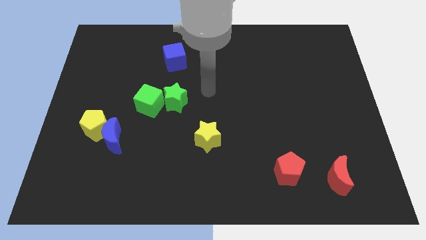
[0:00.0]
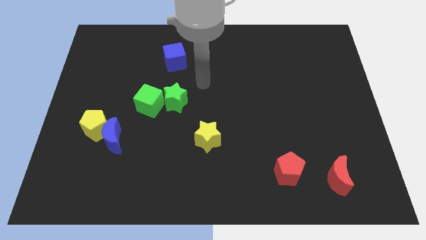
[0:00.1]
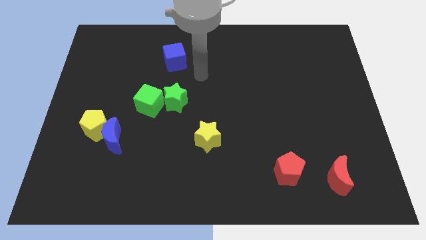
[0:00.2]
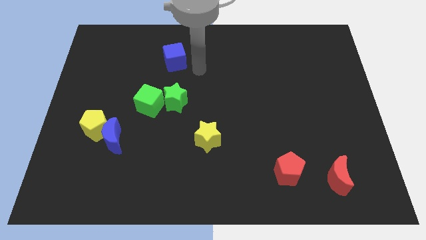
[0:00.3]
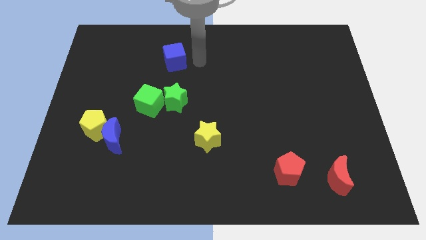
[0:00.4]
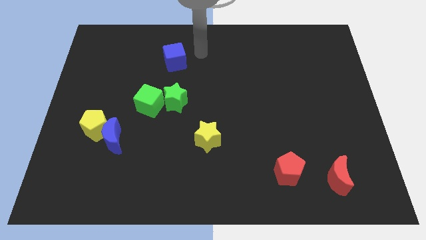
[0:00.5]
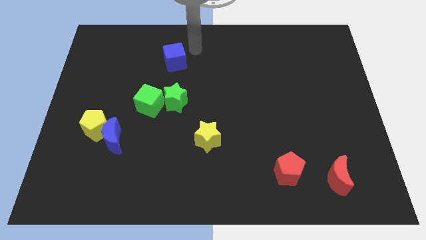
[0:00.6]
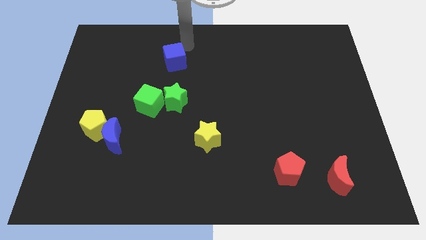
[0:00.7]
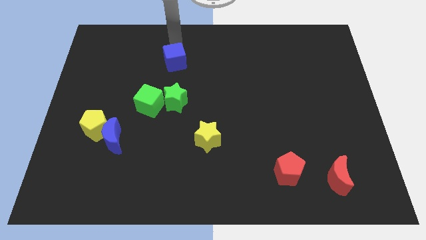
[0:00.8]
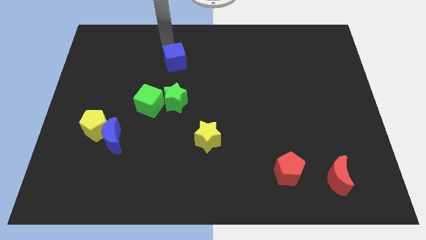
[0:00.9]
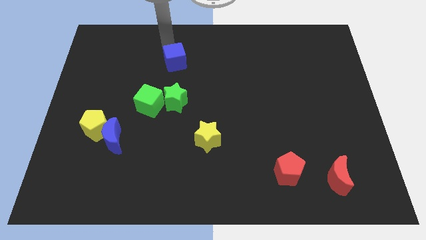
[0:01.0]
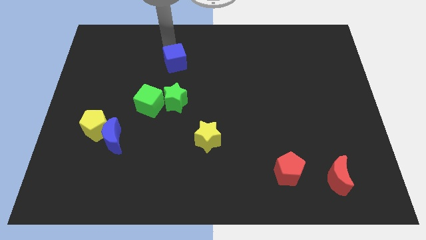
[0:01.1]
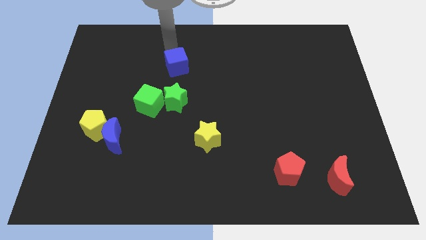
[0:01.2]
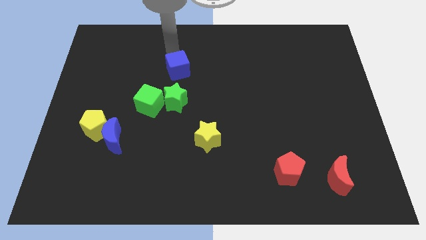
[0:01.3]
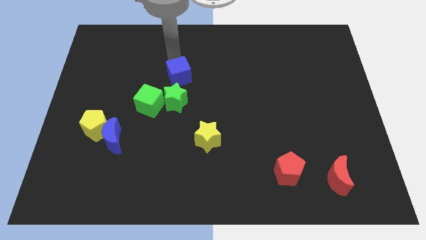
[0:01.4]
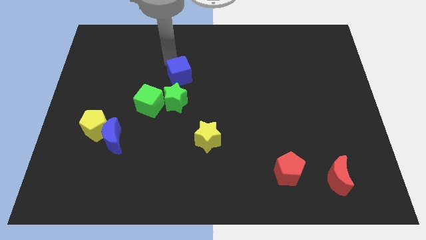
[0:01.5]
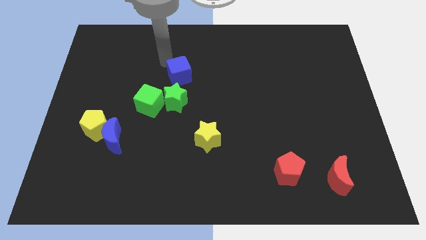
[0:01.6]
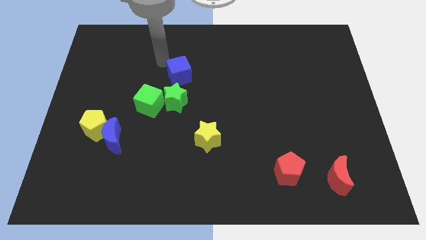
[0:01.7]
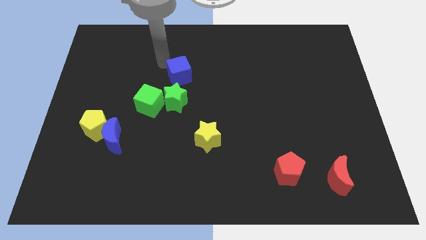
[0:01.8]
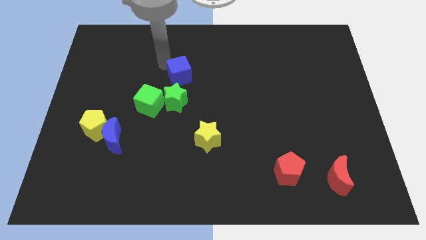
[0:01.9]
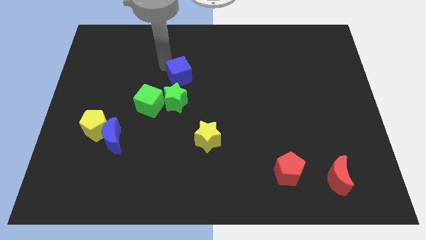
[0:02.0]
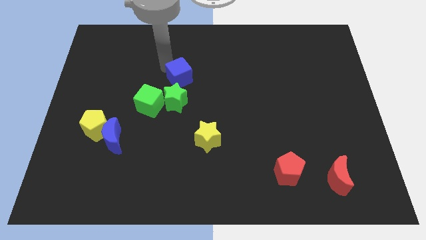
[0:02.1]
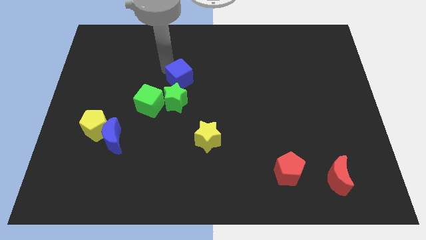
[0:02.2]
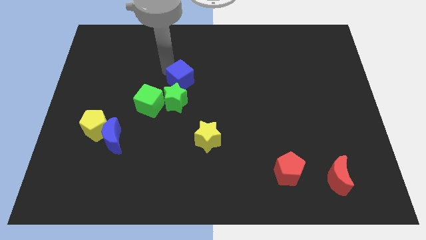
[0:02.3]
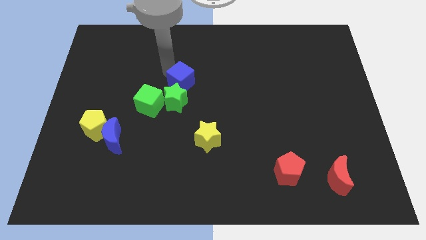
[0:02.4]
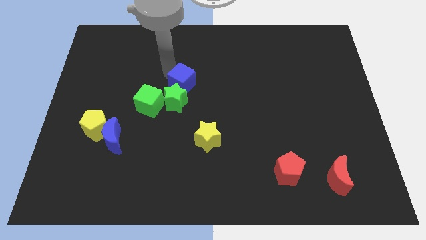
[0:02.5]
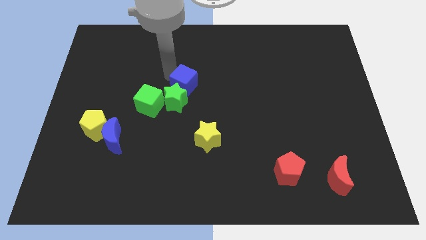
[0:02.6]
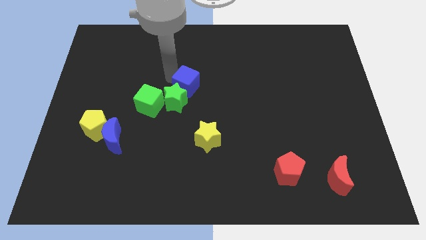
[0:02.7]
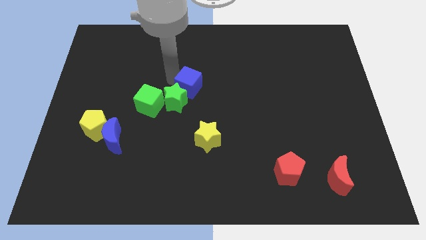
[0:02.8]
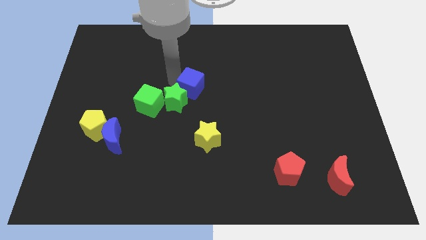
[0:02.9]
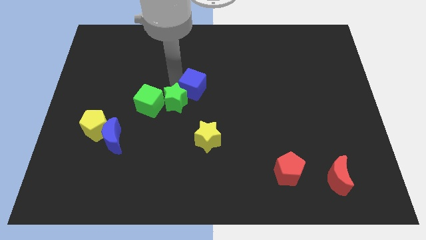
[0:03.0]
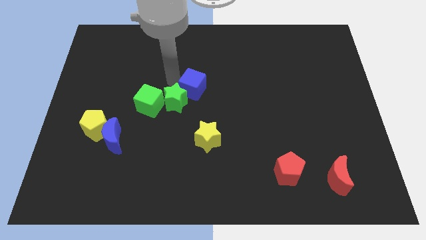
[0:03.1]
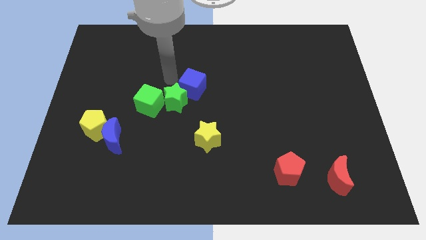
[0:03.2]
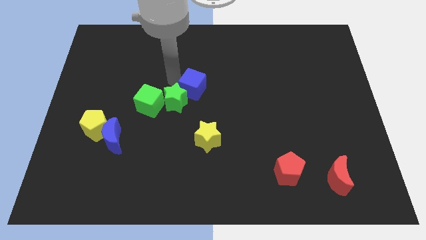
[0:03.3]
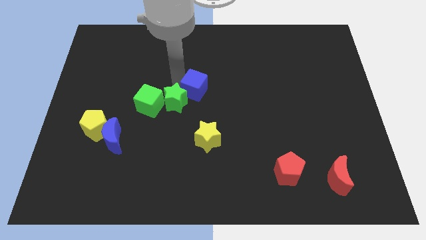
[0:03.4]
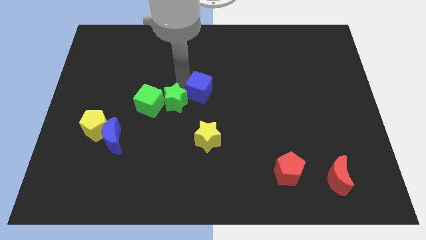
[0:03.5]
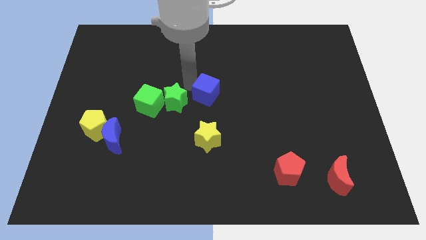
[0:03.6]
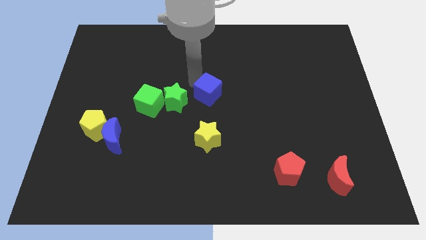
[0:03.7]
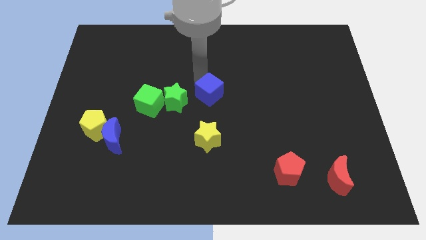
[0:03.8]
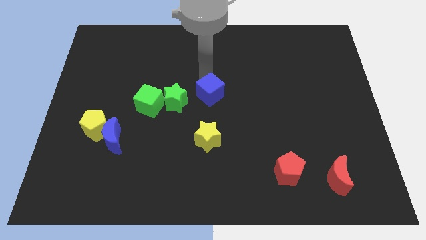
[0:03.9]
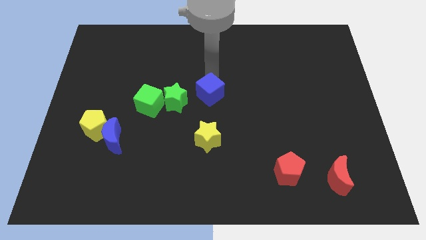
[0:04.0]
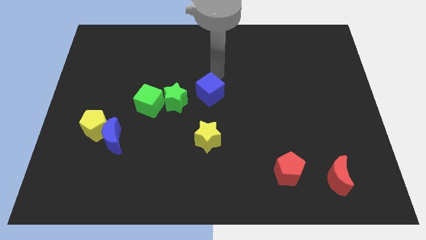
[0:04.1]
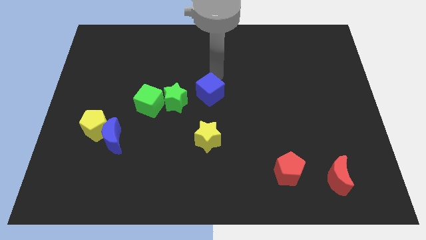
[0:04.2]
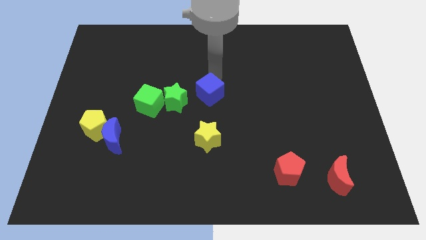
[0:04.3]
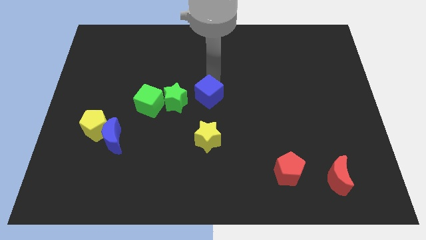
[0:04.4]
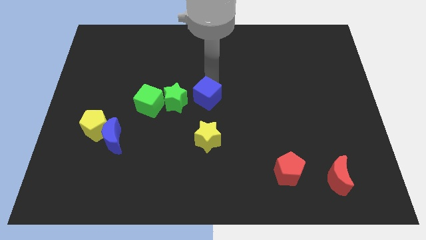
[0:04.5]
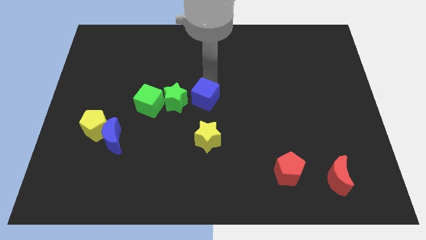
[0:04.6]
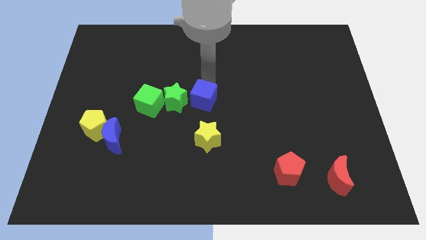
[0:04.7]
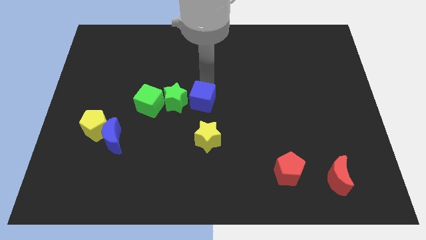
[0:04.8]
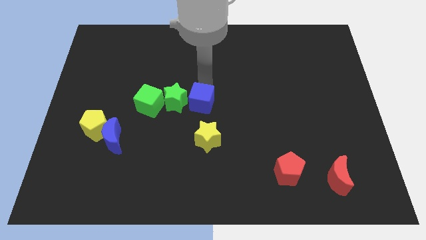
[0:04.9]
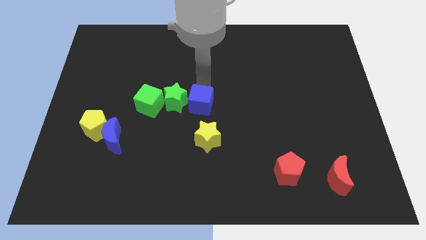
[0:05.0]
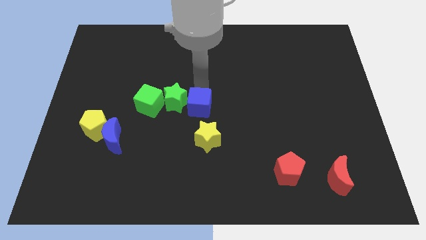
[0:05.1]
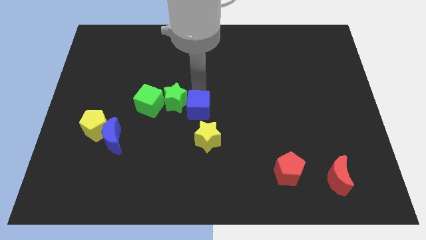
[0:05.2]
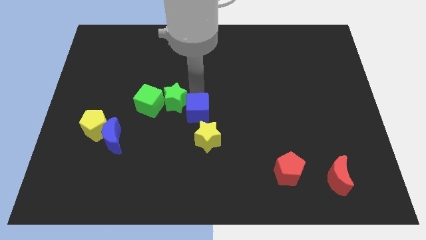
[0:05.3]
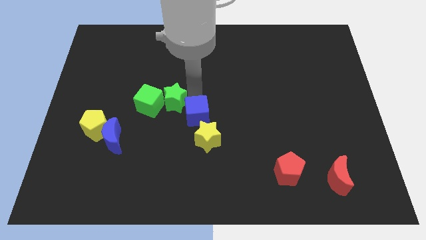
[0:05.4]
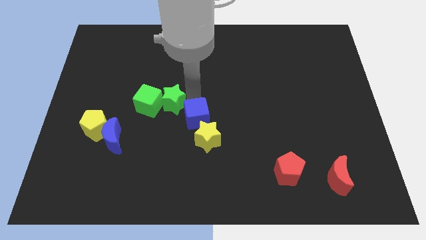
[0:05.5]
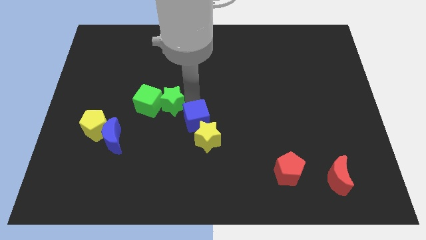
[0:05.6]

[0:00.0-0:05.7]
slide the blue cube to the yellow star

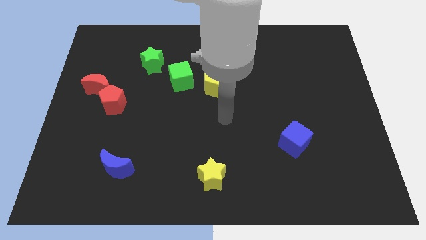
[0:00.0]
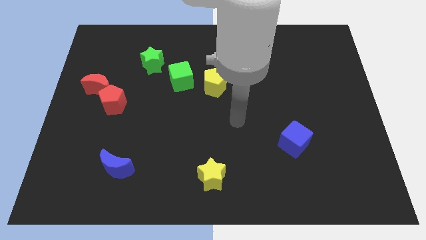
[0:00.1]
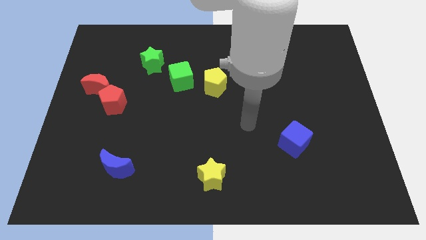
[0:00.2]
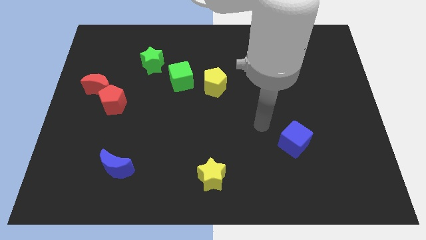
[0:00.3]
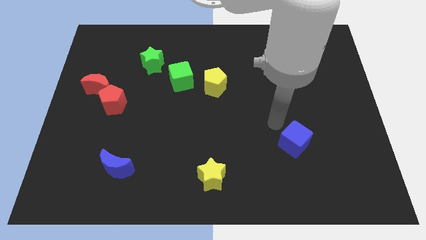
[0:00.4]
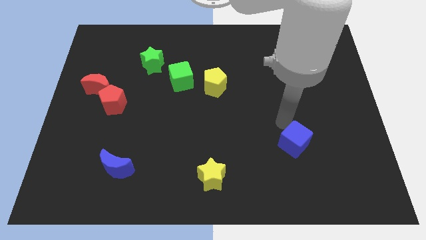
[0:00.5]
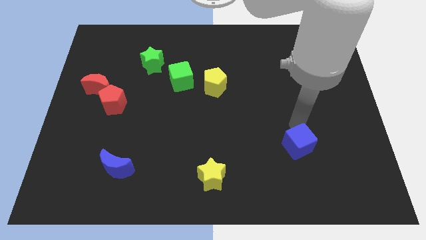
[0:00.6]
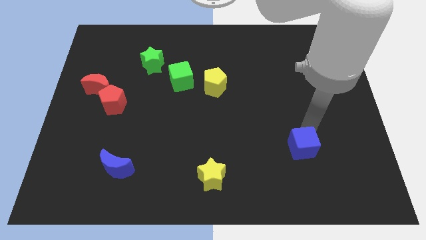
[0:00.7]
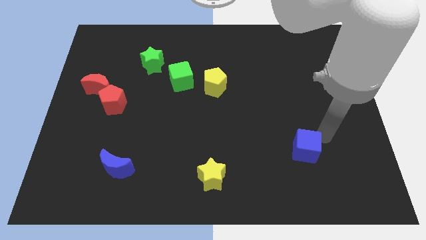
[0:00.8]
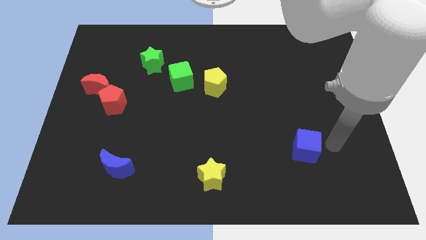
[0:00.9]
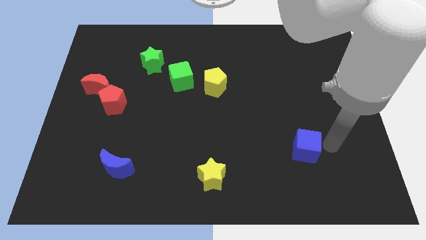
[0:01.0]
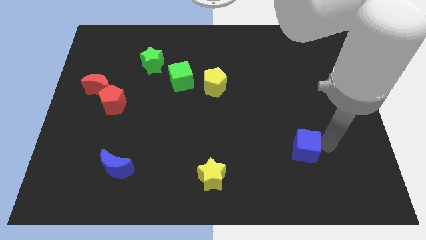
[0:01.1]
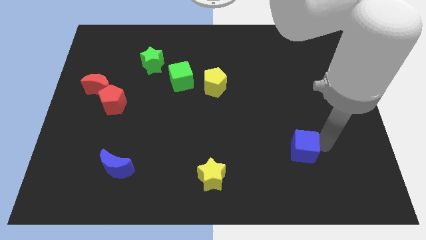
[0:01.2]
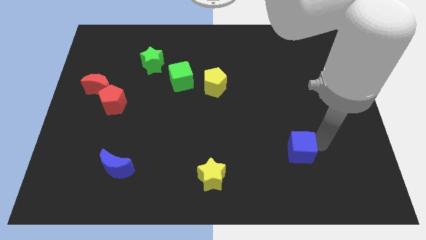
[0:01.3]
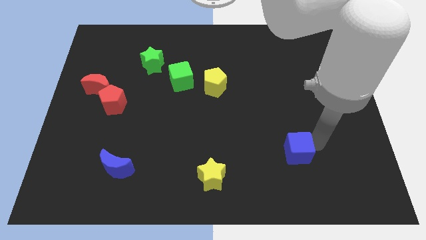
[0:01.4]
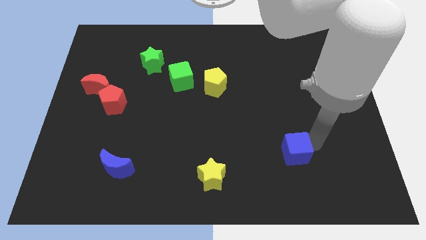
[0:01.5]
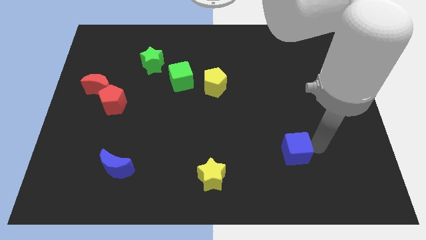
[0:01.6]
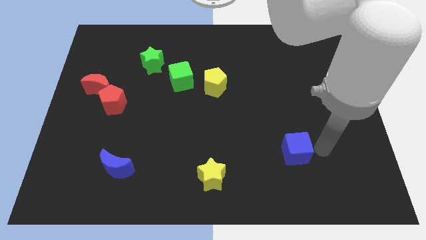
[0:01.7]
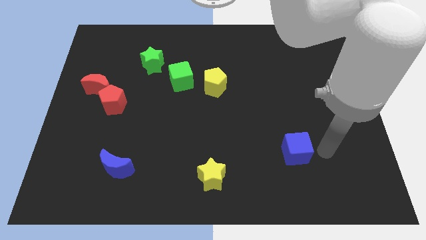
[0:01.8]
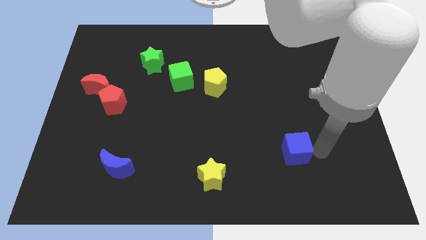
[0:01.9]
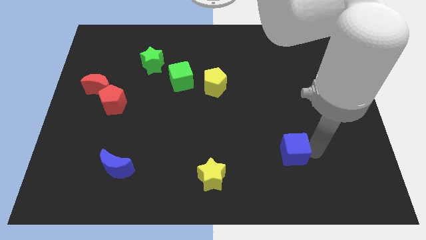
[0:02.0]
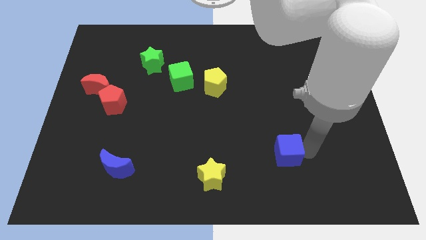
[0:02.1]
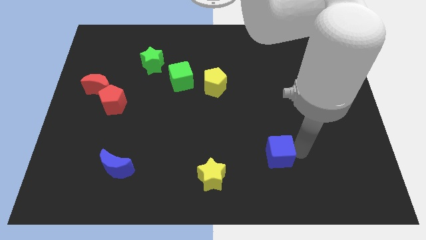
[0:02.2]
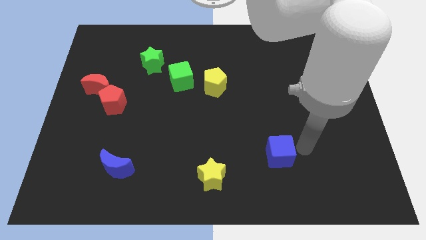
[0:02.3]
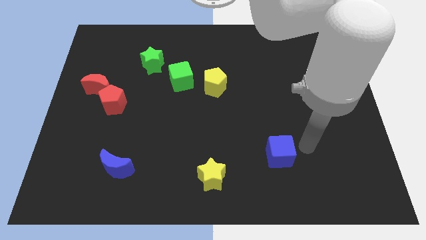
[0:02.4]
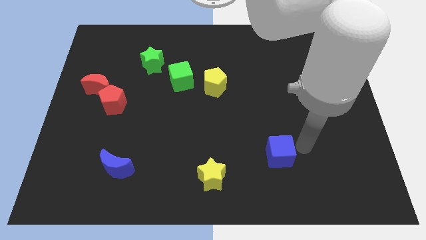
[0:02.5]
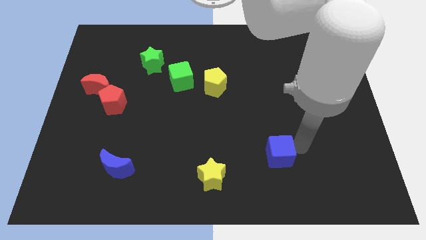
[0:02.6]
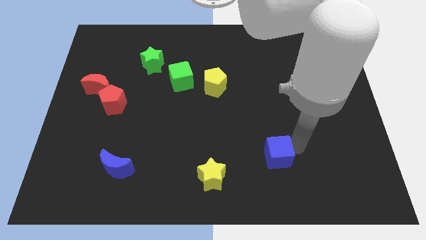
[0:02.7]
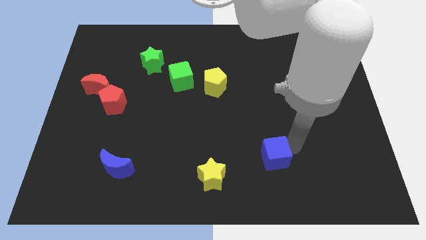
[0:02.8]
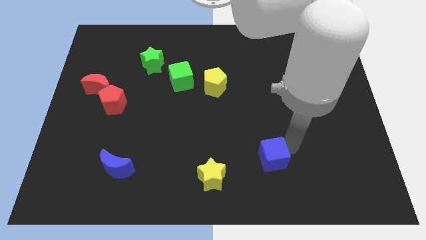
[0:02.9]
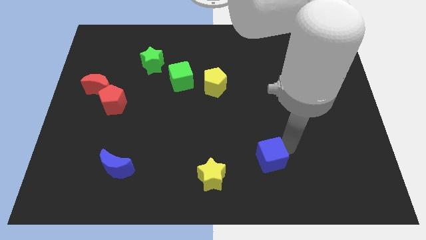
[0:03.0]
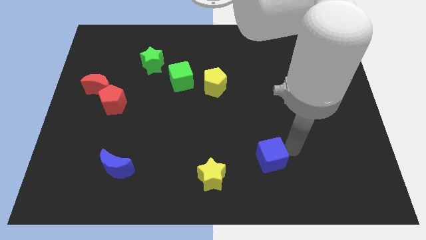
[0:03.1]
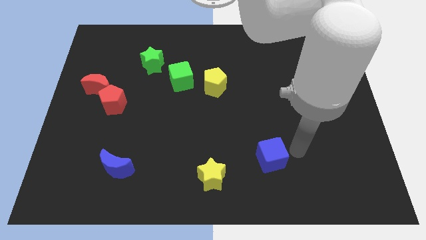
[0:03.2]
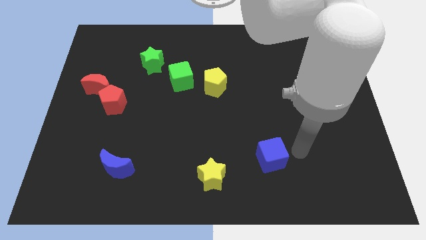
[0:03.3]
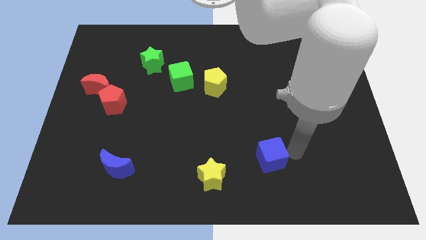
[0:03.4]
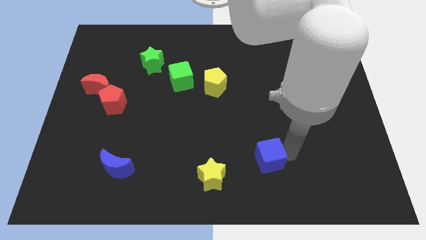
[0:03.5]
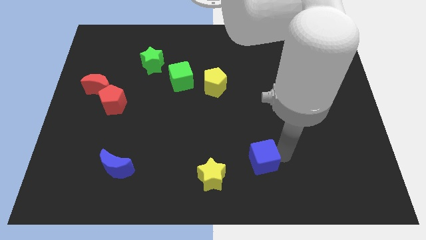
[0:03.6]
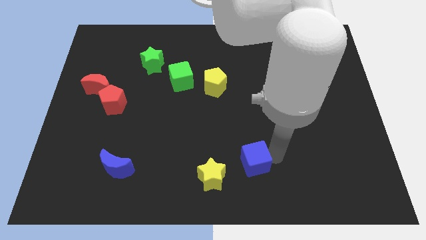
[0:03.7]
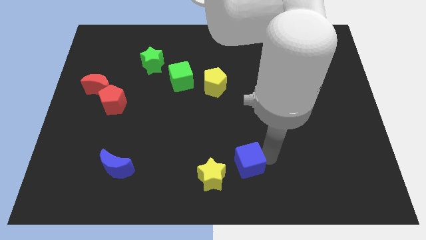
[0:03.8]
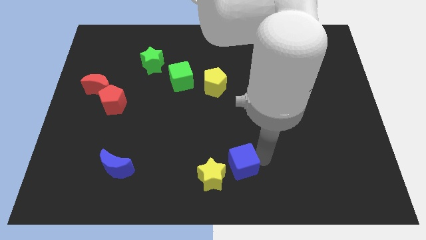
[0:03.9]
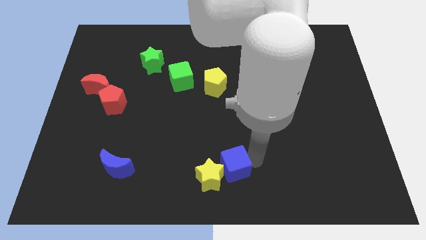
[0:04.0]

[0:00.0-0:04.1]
slide the blue cube towards the yellow star
